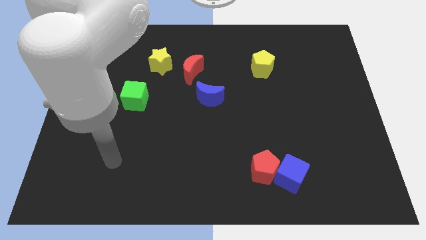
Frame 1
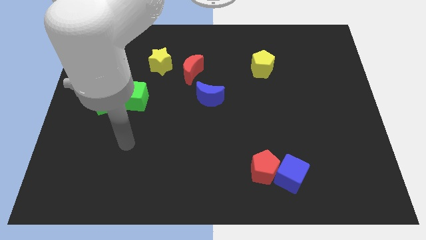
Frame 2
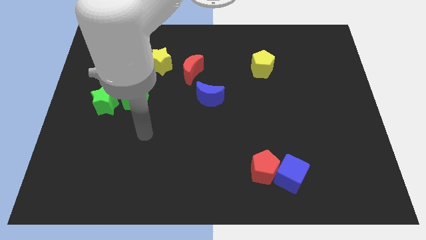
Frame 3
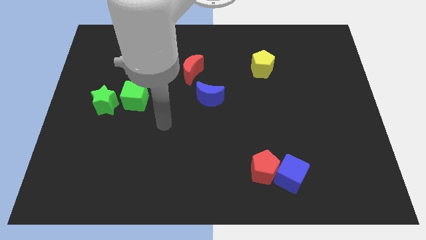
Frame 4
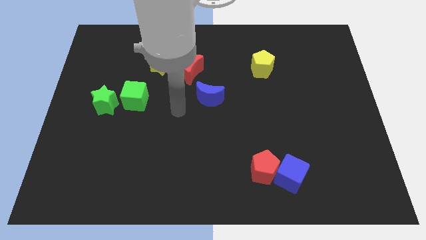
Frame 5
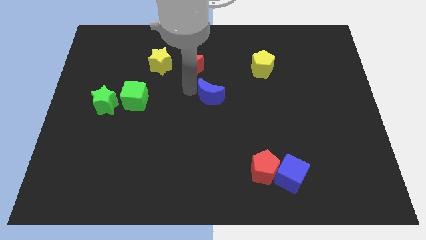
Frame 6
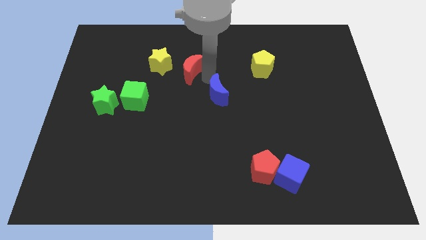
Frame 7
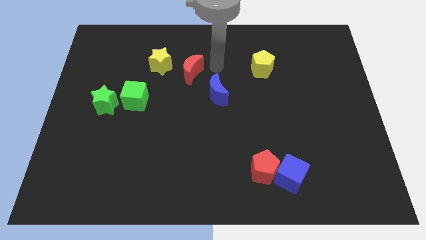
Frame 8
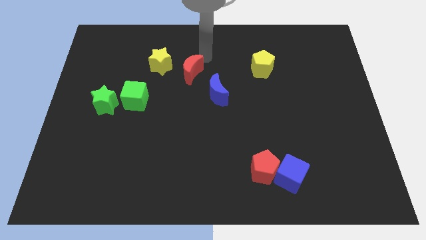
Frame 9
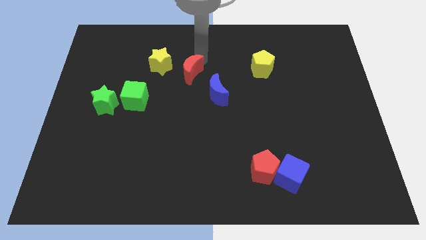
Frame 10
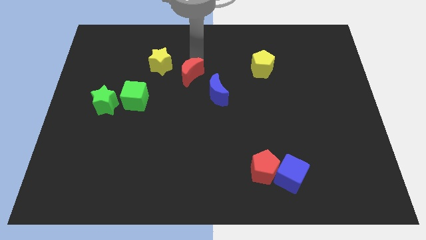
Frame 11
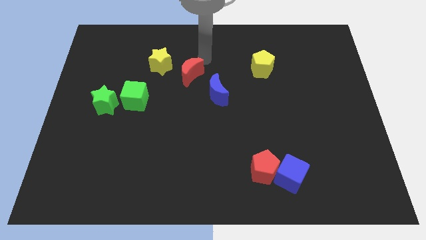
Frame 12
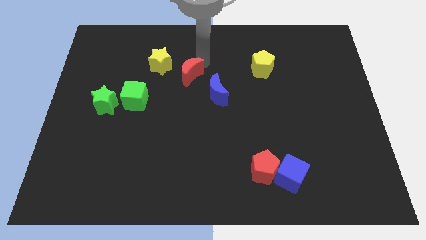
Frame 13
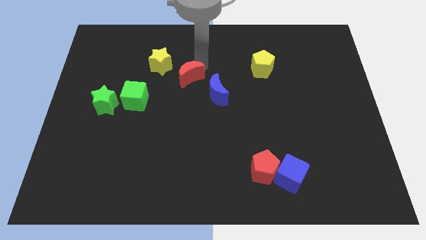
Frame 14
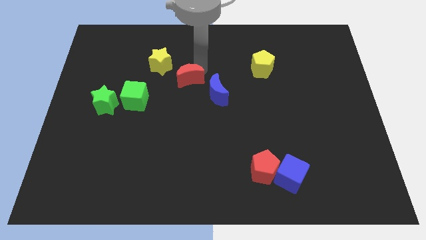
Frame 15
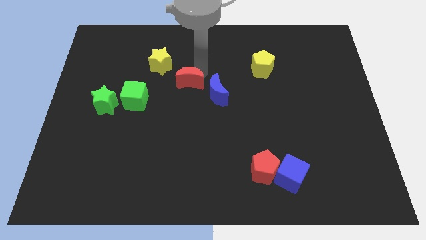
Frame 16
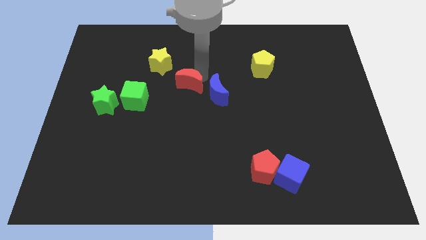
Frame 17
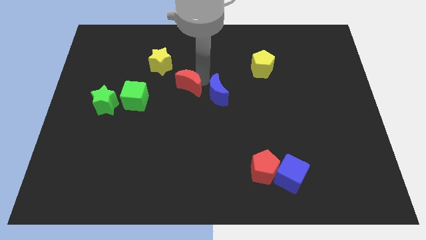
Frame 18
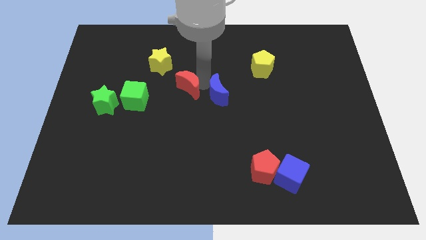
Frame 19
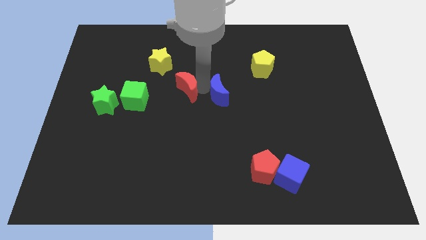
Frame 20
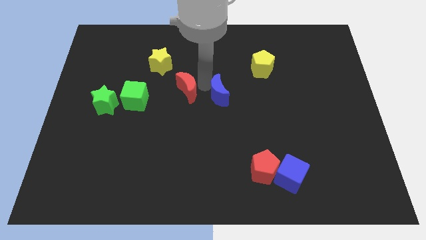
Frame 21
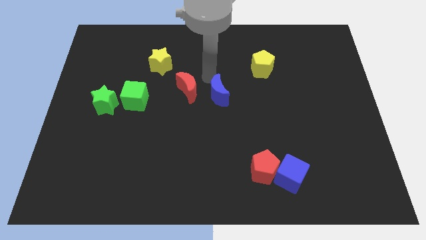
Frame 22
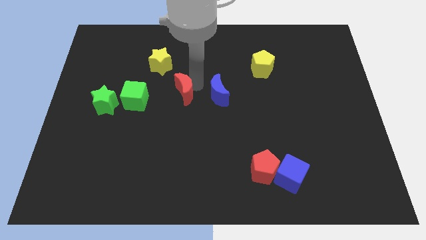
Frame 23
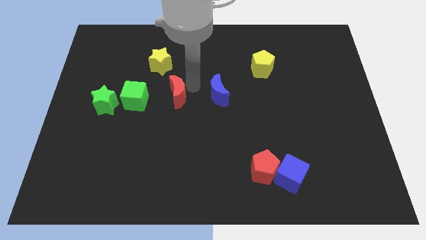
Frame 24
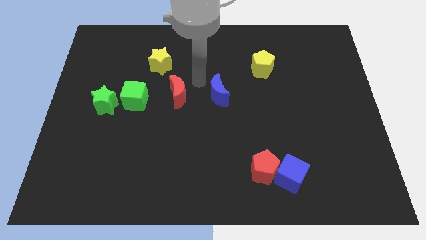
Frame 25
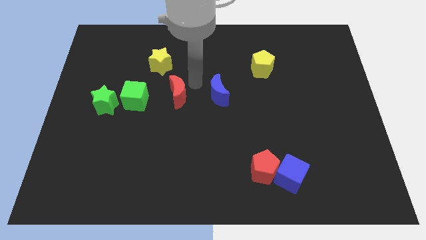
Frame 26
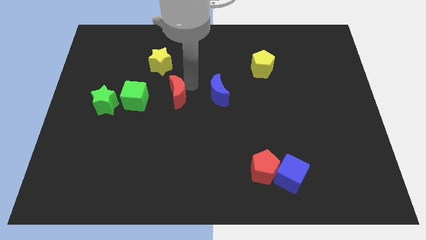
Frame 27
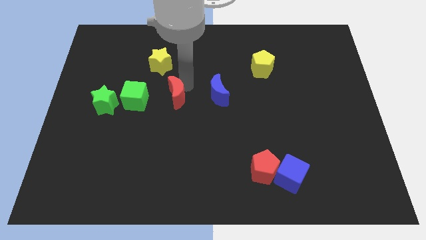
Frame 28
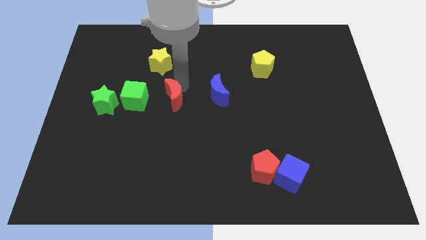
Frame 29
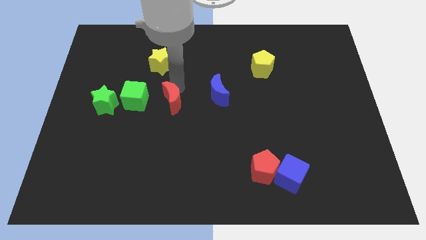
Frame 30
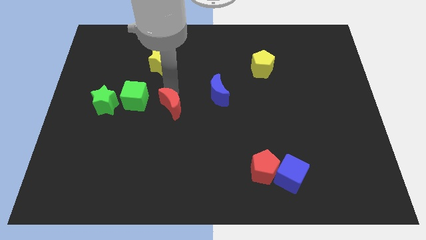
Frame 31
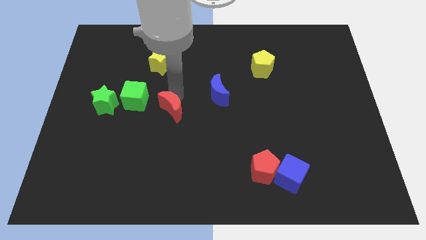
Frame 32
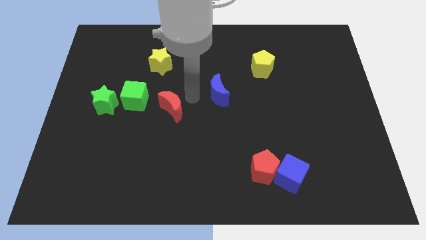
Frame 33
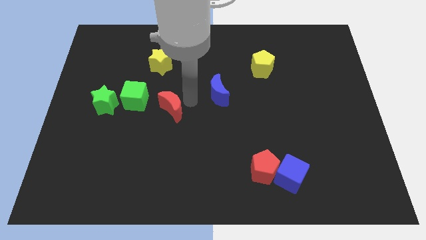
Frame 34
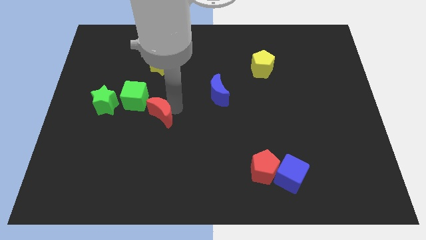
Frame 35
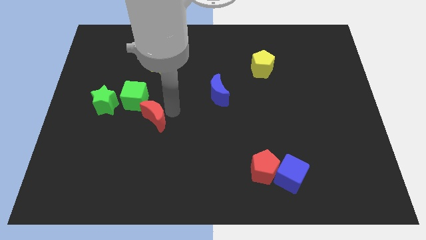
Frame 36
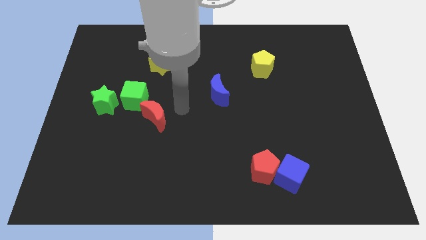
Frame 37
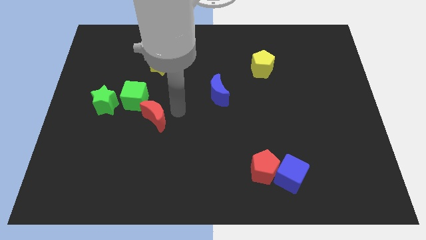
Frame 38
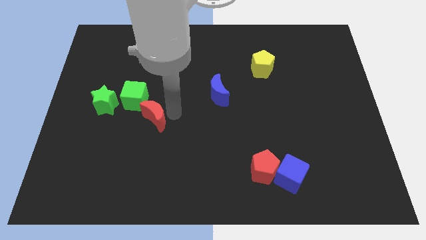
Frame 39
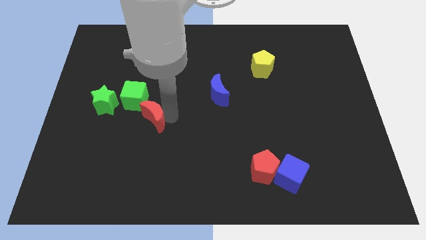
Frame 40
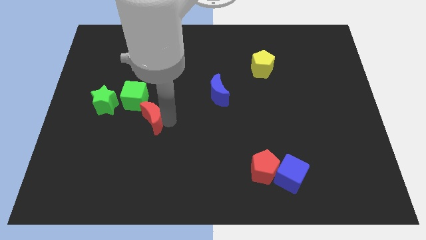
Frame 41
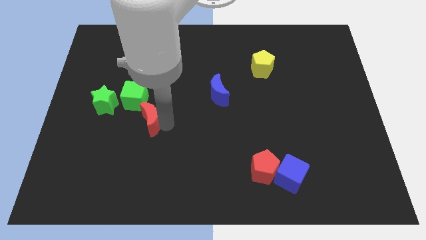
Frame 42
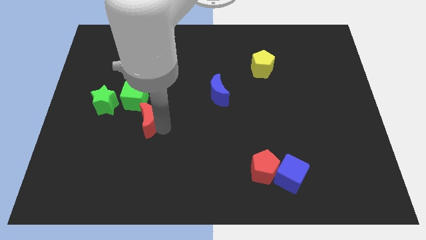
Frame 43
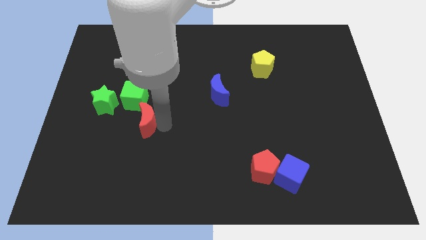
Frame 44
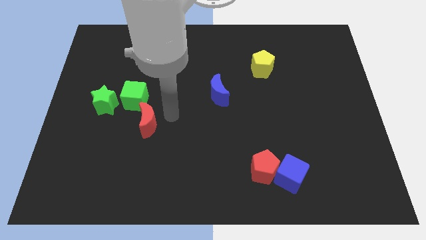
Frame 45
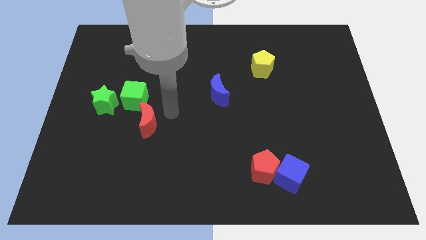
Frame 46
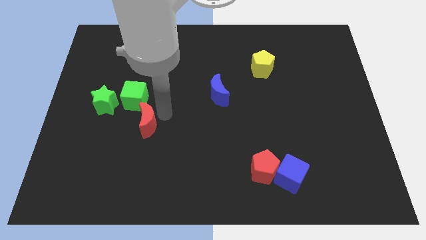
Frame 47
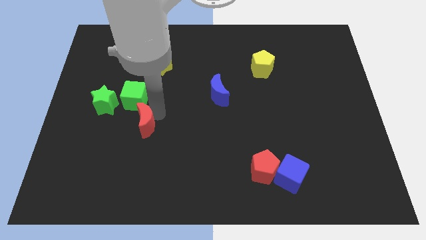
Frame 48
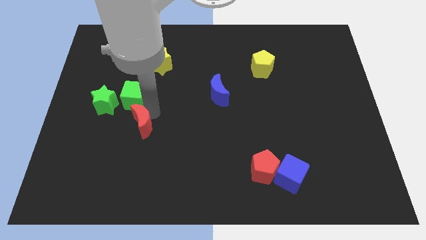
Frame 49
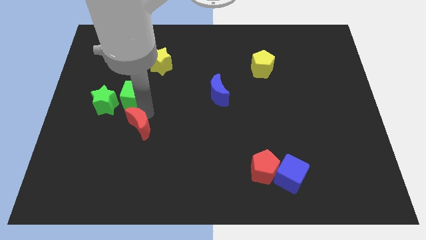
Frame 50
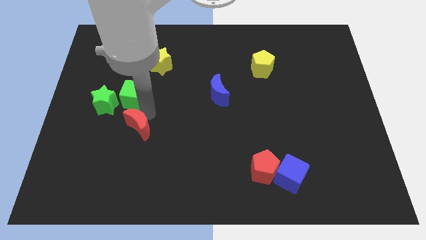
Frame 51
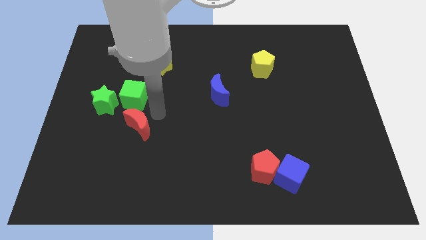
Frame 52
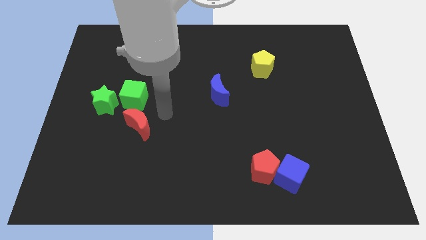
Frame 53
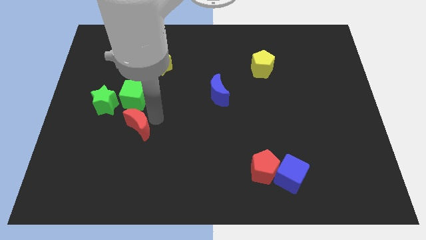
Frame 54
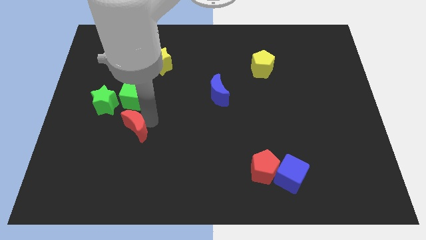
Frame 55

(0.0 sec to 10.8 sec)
move the red moon downwards and then left

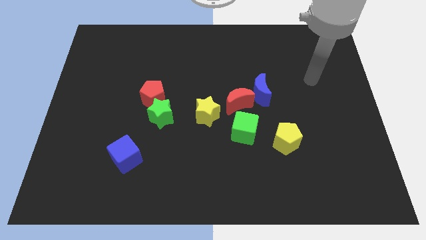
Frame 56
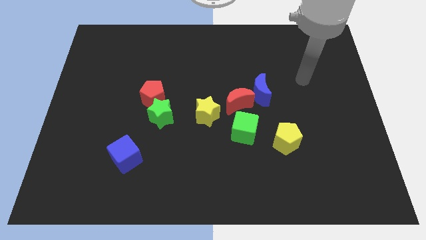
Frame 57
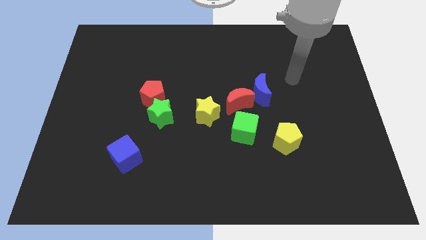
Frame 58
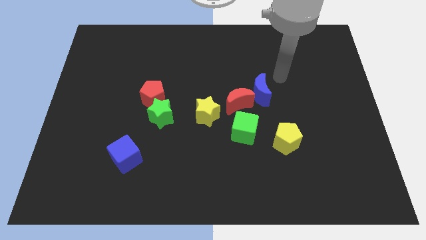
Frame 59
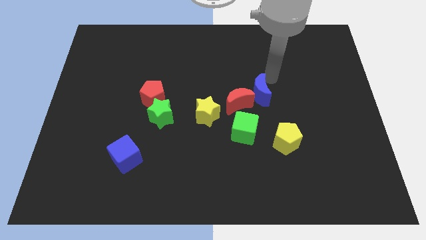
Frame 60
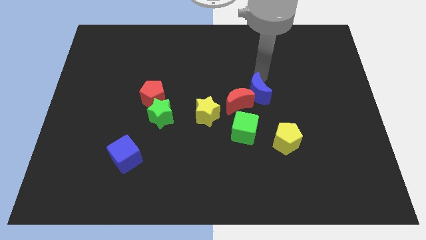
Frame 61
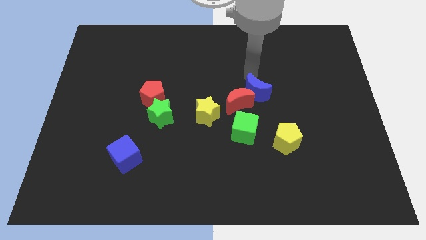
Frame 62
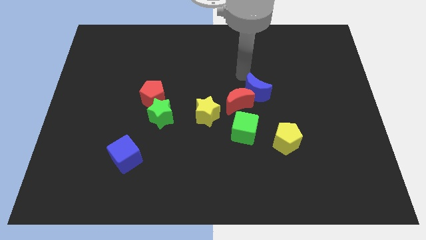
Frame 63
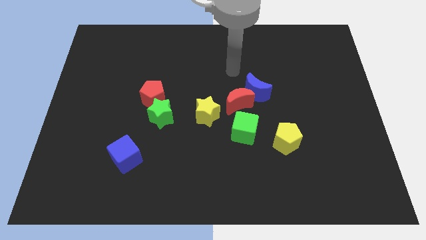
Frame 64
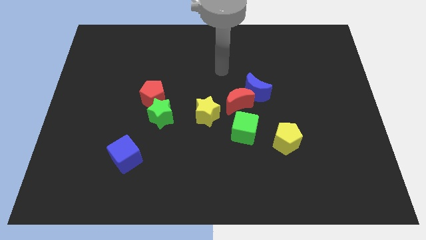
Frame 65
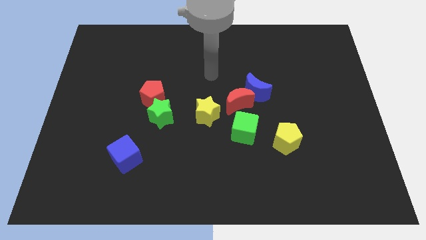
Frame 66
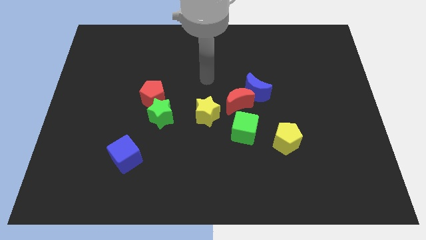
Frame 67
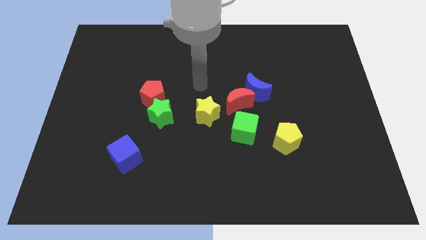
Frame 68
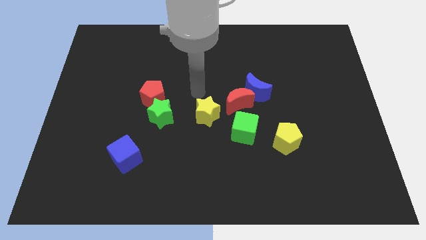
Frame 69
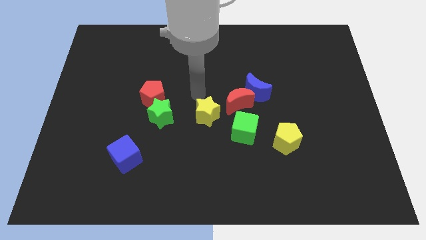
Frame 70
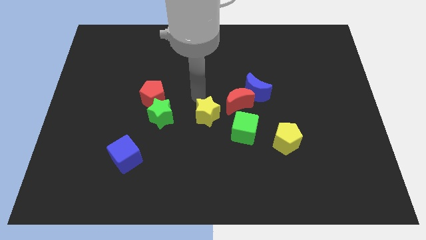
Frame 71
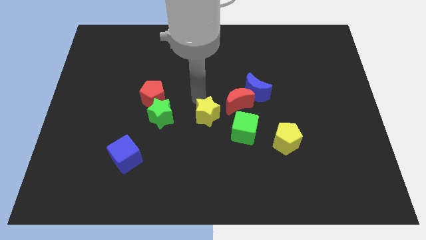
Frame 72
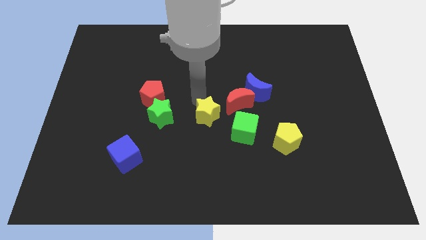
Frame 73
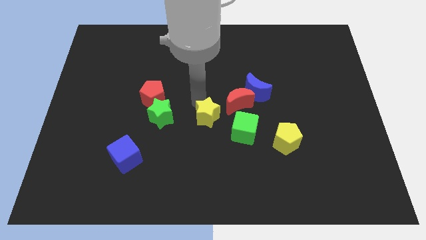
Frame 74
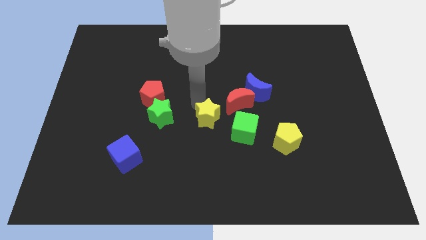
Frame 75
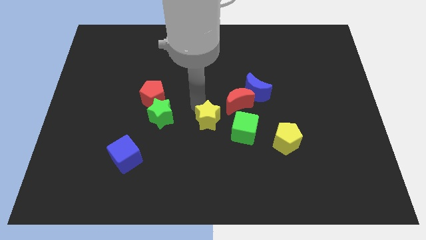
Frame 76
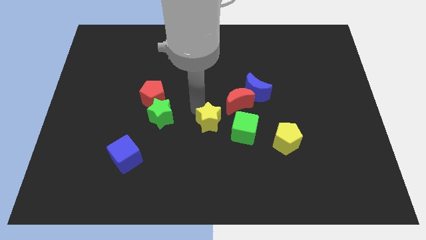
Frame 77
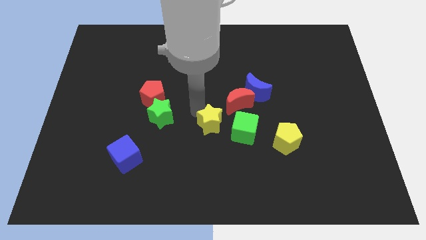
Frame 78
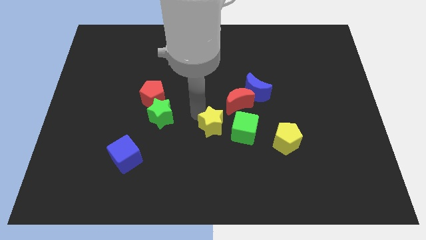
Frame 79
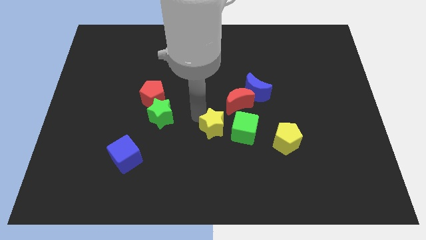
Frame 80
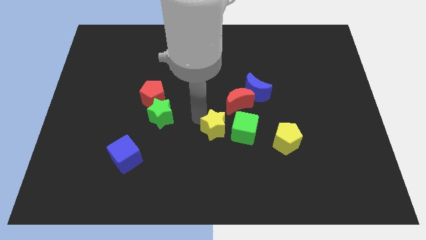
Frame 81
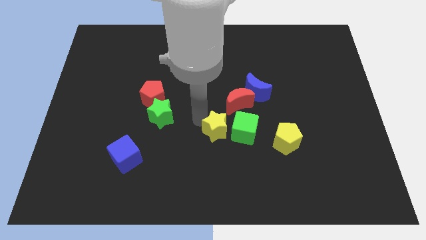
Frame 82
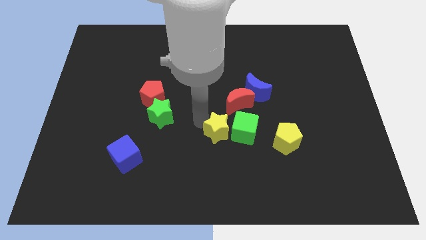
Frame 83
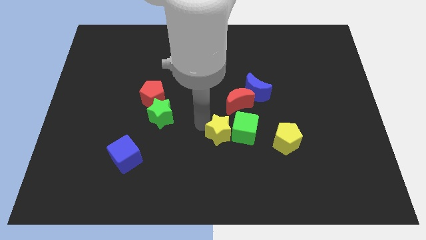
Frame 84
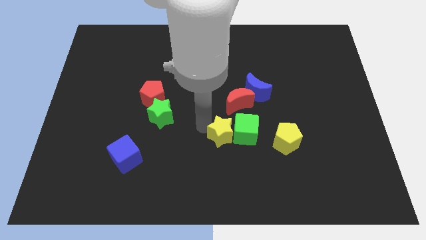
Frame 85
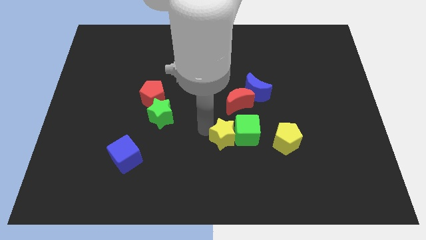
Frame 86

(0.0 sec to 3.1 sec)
slightly slide the yellow star down and to the right diagonally
